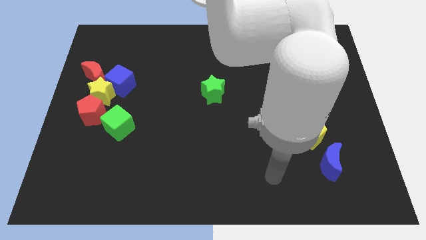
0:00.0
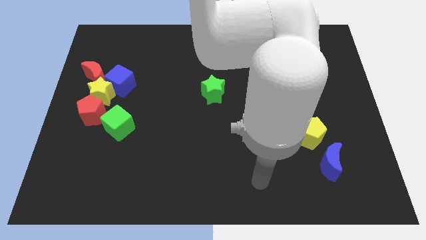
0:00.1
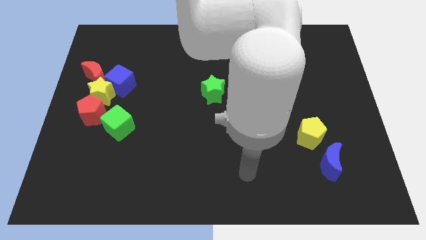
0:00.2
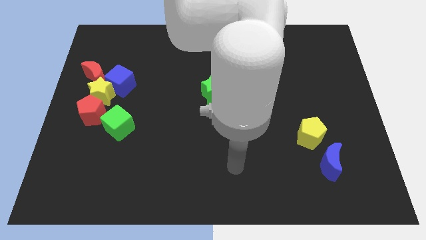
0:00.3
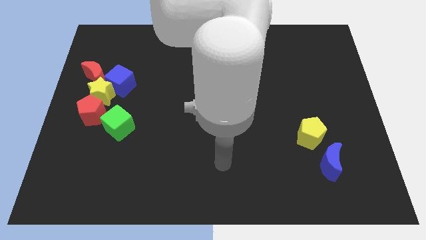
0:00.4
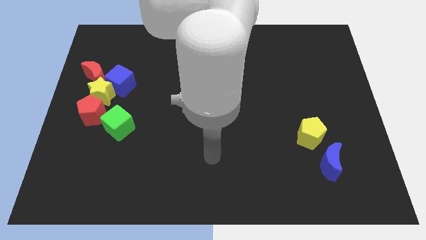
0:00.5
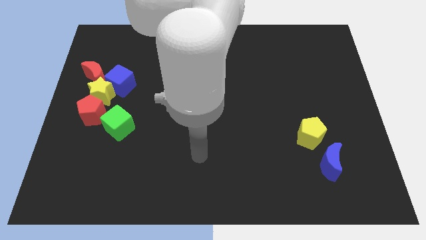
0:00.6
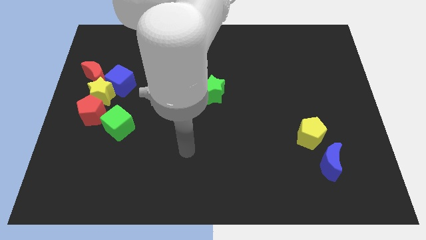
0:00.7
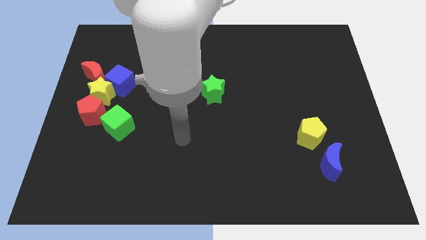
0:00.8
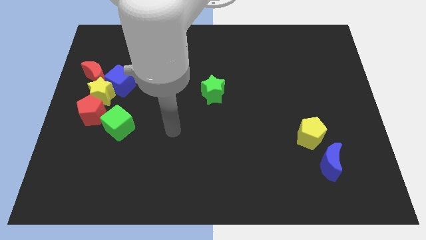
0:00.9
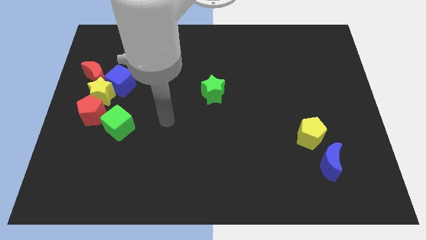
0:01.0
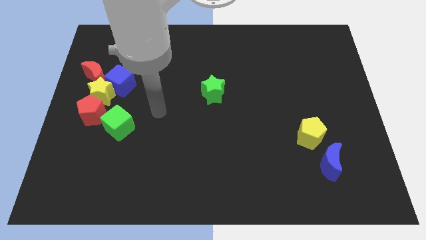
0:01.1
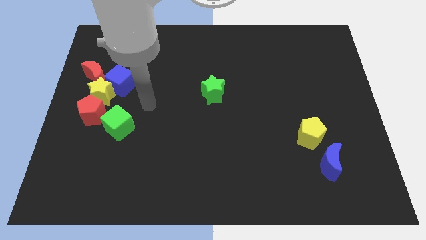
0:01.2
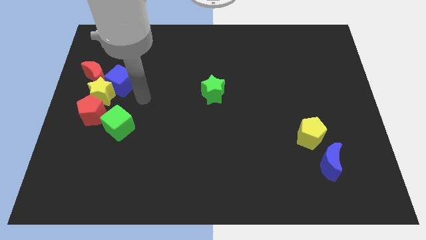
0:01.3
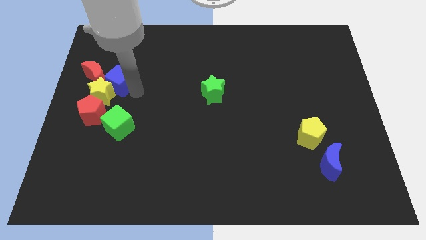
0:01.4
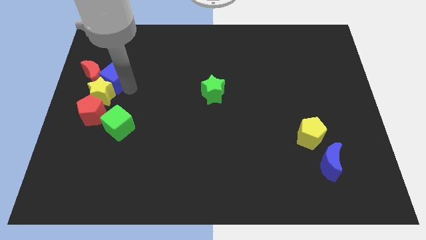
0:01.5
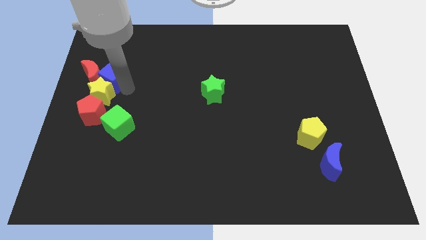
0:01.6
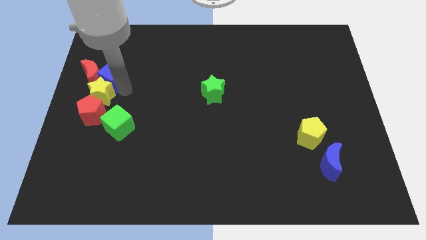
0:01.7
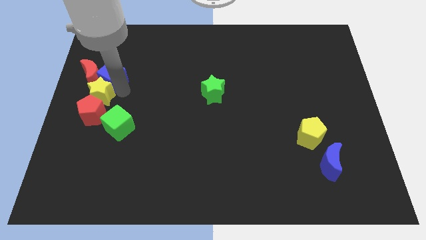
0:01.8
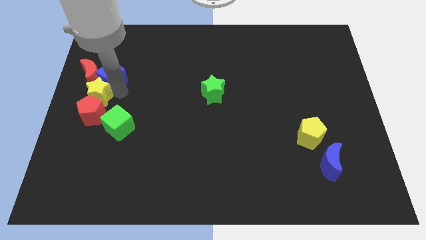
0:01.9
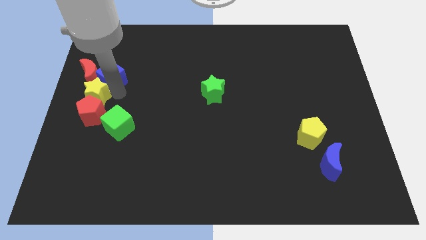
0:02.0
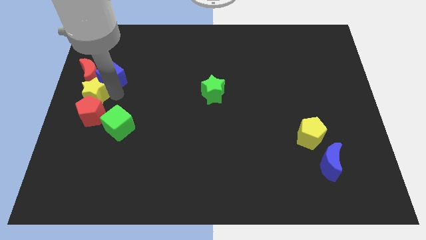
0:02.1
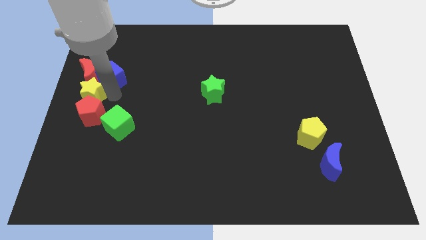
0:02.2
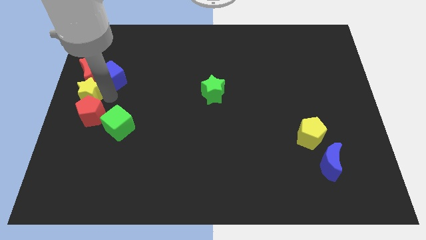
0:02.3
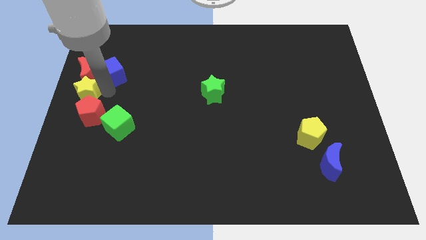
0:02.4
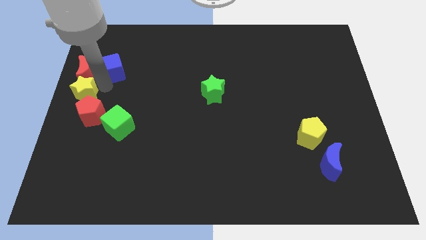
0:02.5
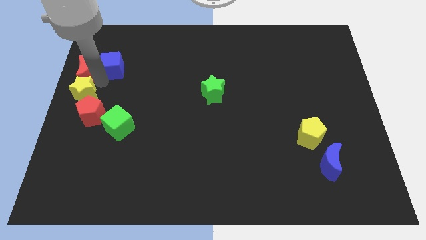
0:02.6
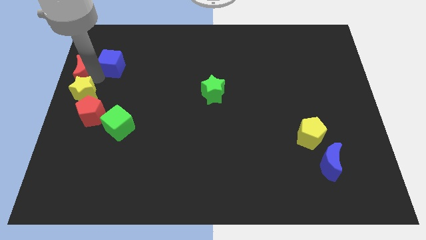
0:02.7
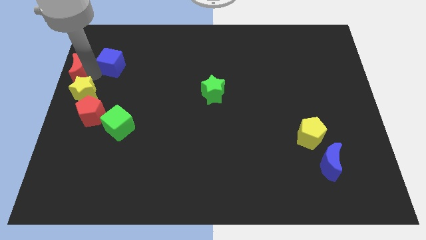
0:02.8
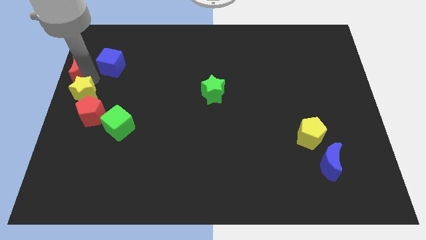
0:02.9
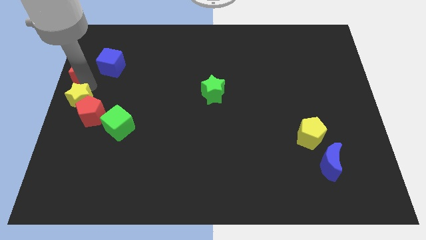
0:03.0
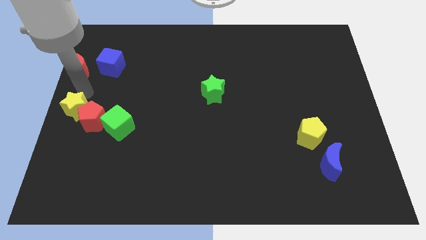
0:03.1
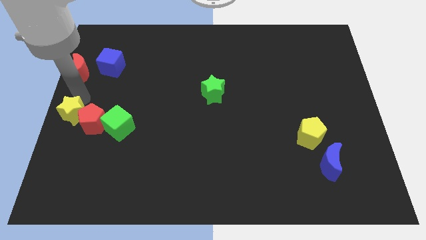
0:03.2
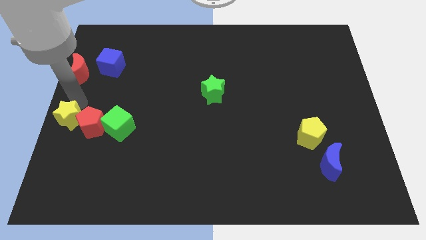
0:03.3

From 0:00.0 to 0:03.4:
move the yellow star away from the clump

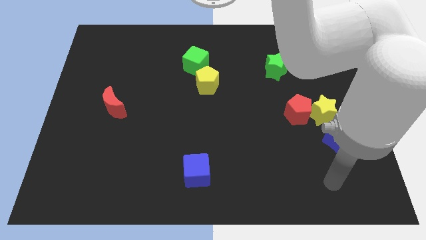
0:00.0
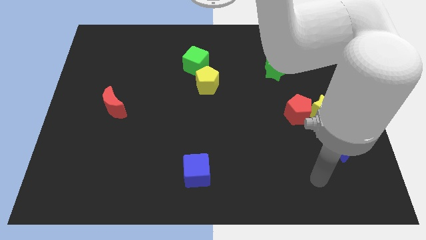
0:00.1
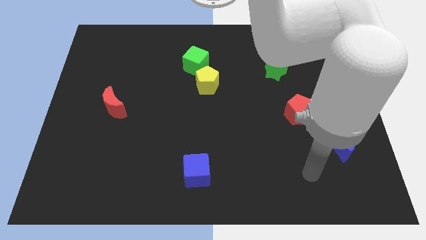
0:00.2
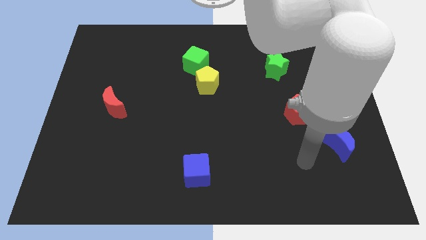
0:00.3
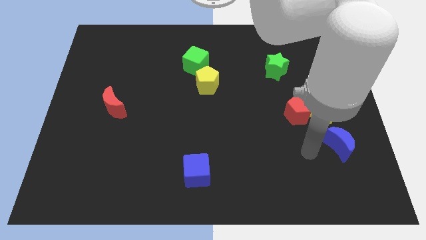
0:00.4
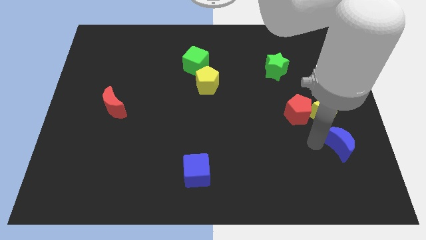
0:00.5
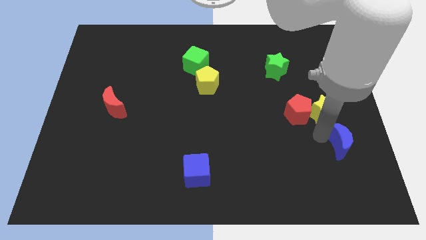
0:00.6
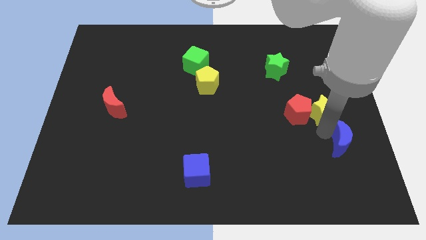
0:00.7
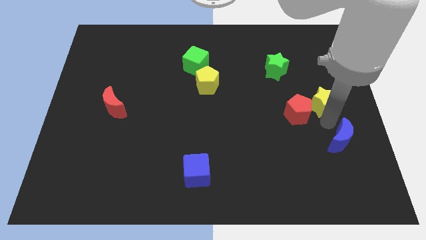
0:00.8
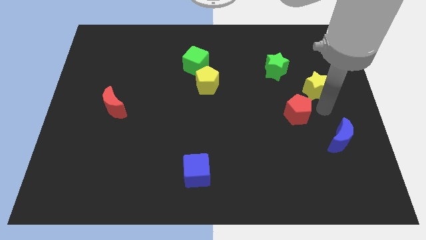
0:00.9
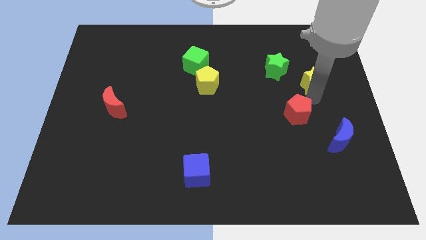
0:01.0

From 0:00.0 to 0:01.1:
pull the red pentagon apart from the yellow star

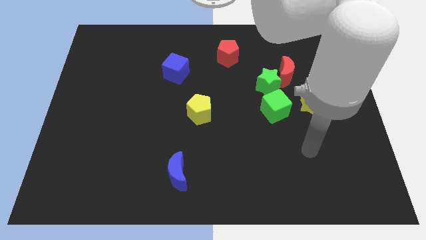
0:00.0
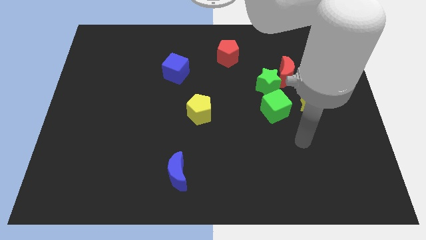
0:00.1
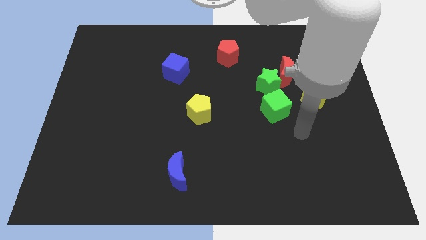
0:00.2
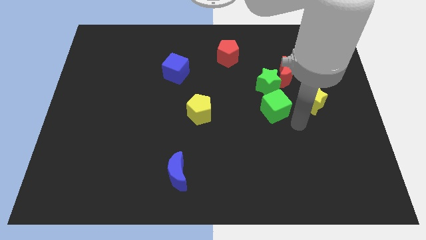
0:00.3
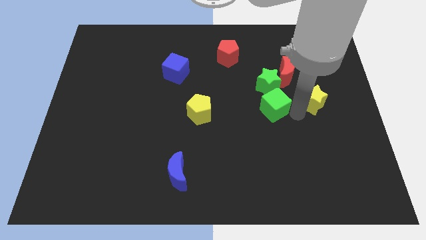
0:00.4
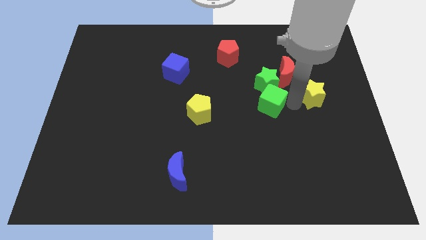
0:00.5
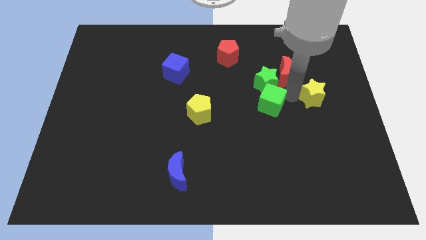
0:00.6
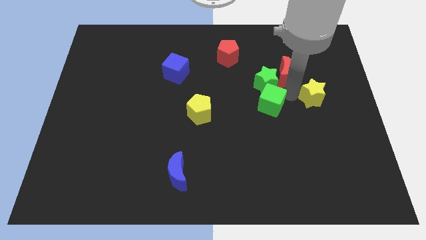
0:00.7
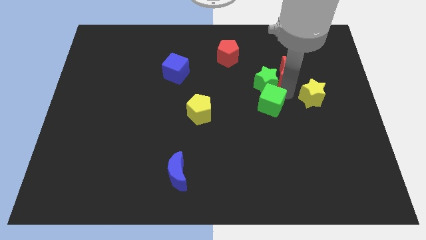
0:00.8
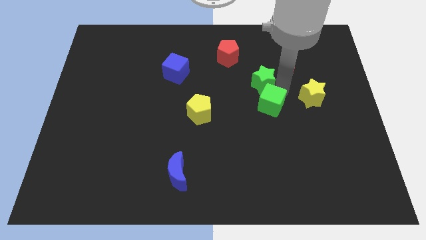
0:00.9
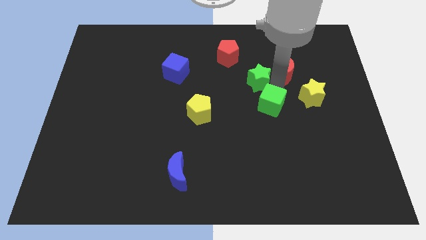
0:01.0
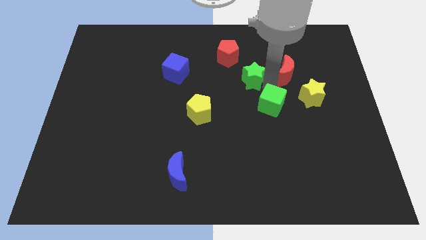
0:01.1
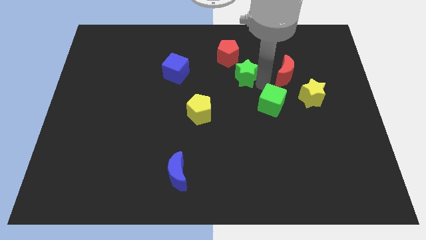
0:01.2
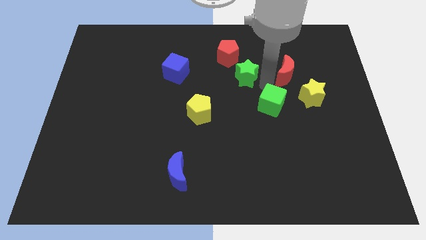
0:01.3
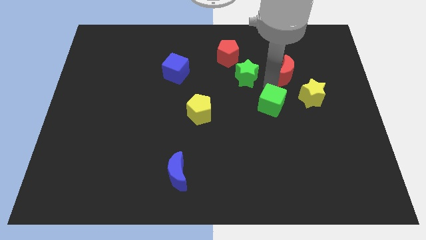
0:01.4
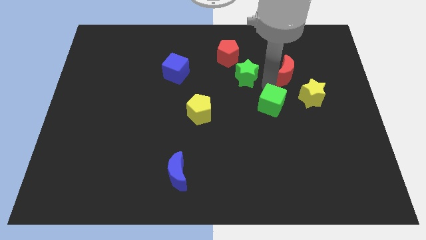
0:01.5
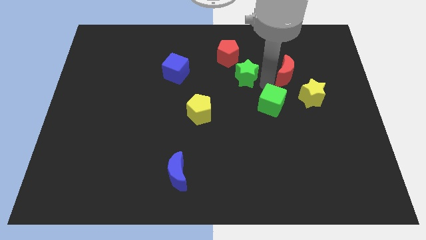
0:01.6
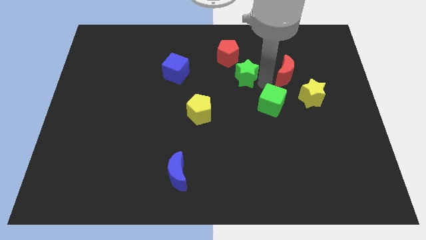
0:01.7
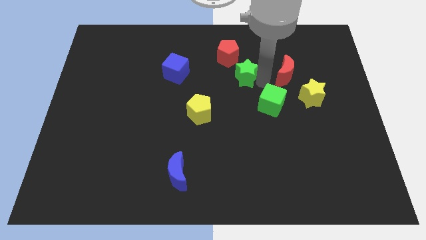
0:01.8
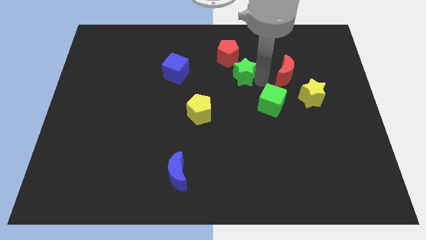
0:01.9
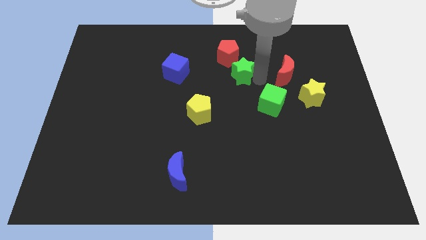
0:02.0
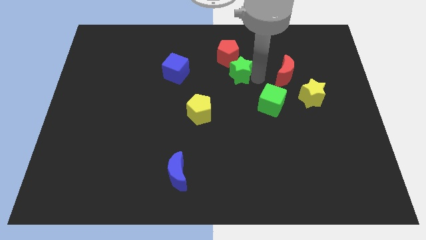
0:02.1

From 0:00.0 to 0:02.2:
separate the green star from the red moon and green cube

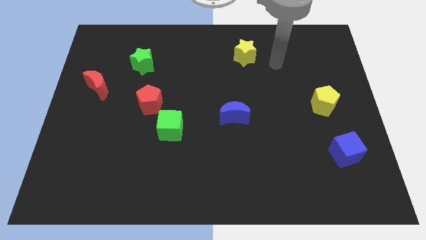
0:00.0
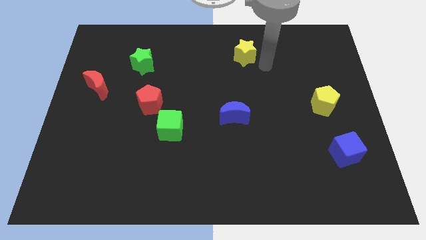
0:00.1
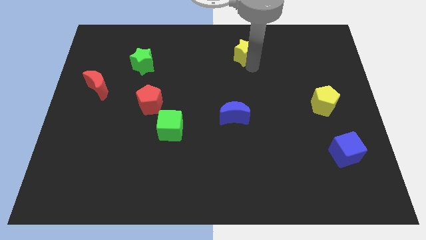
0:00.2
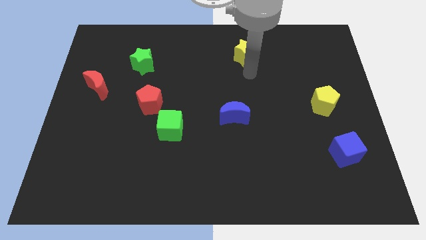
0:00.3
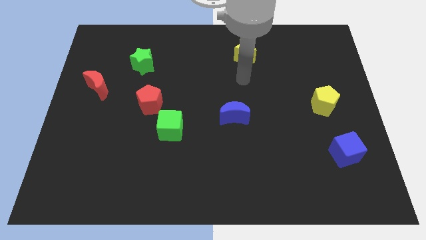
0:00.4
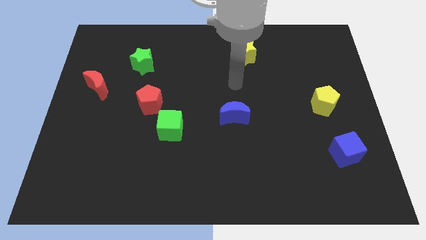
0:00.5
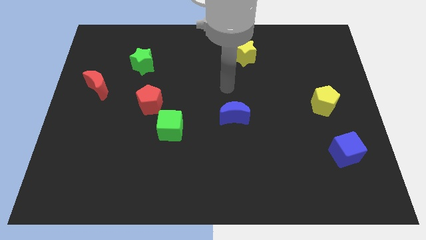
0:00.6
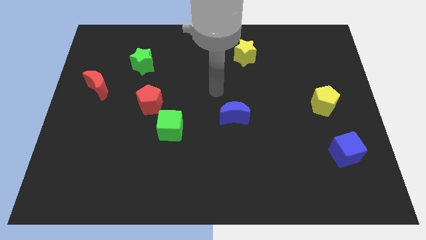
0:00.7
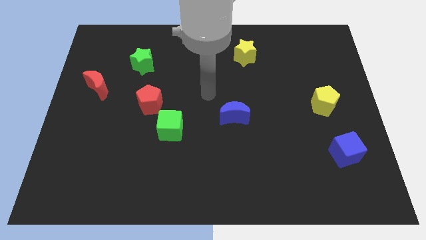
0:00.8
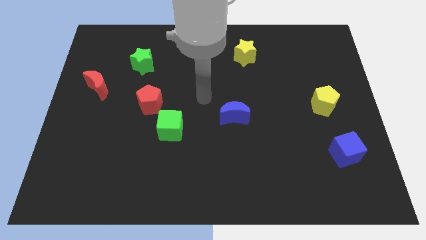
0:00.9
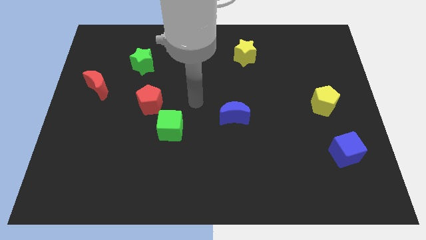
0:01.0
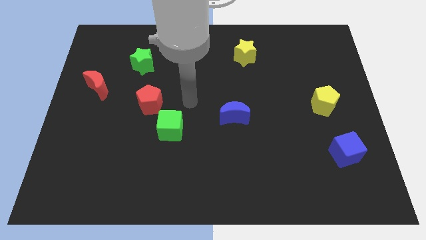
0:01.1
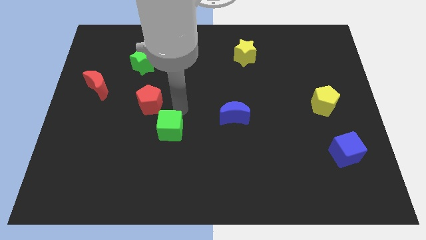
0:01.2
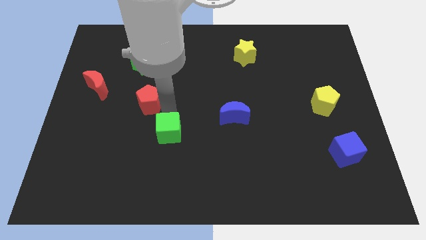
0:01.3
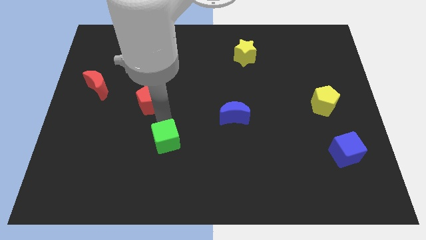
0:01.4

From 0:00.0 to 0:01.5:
move the red pentagon away from the green cube

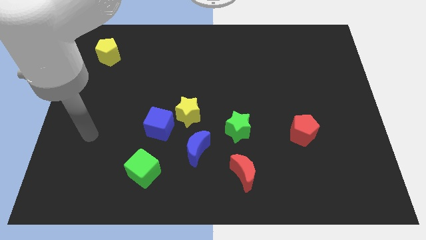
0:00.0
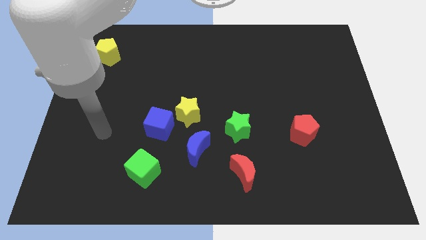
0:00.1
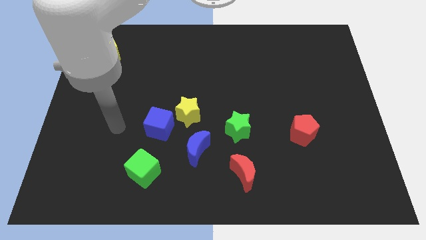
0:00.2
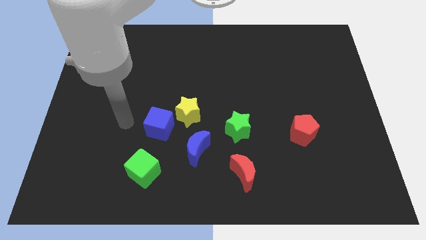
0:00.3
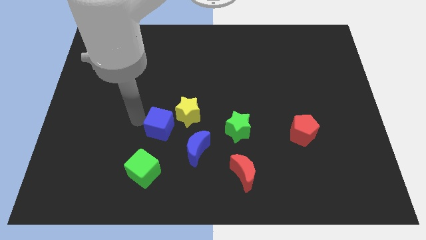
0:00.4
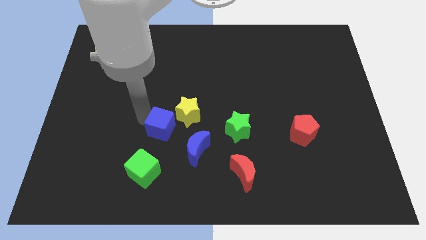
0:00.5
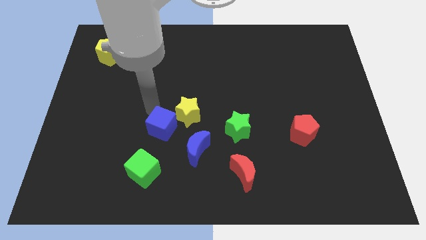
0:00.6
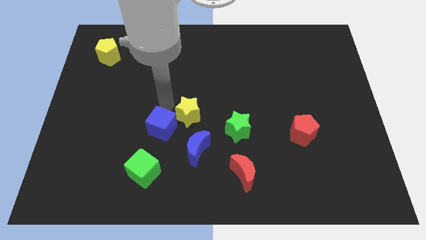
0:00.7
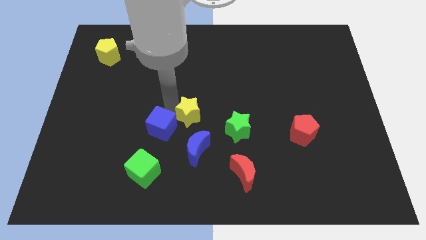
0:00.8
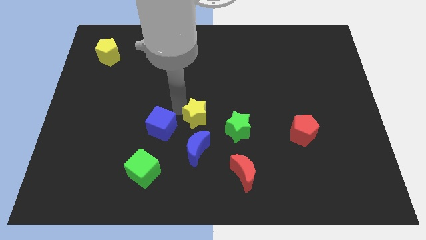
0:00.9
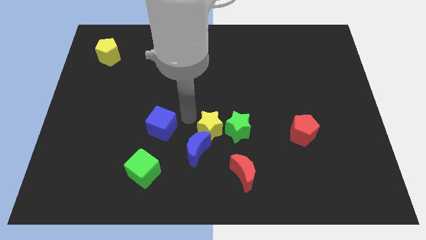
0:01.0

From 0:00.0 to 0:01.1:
separate the blue cube from the yellow star

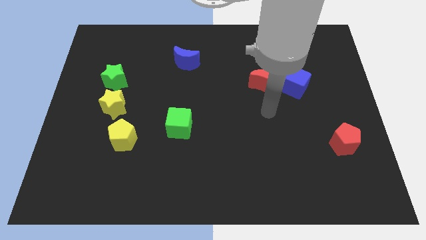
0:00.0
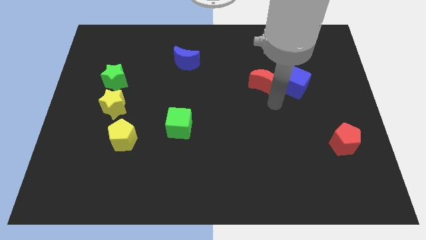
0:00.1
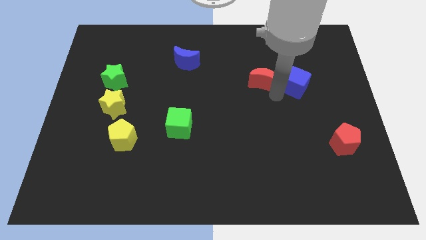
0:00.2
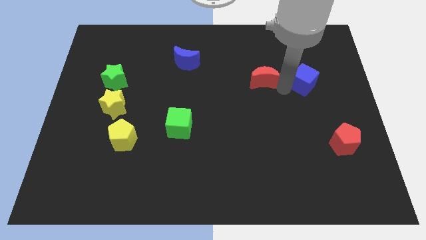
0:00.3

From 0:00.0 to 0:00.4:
separate the red moon from the blue cube
